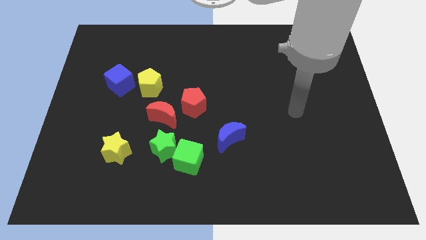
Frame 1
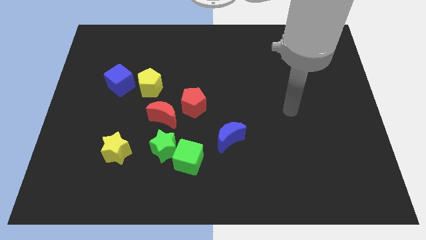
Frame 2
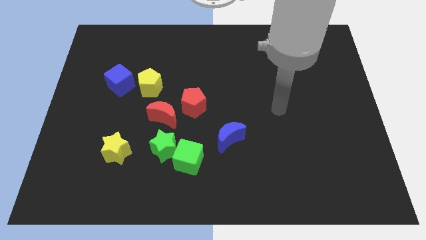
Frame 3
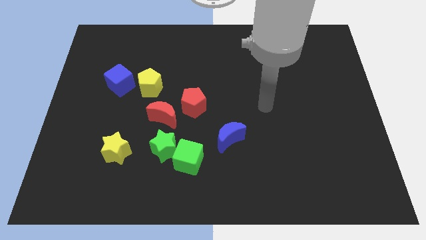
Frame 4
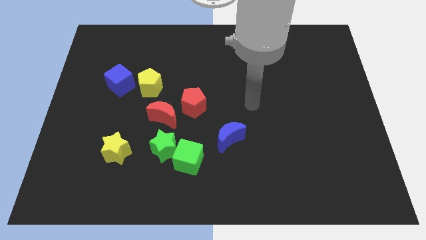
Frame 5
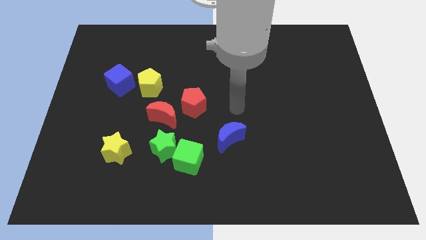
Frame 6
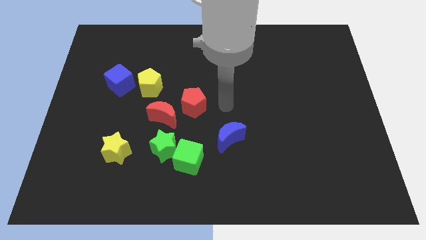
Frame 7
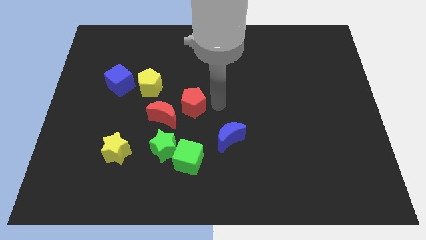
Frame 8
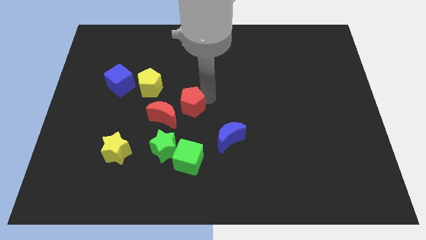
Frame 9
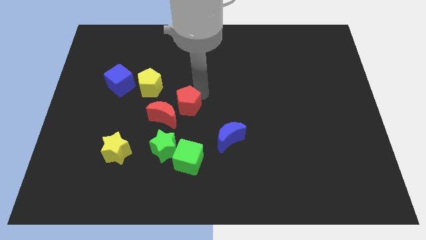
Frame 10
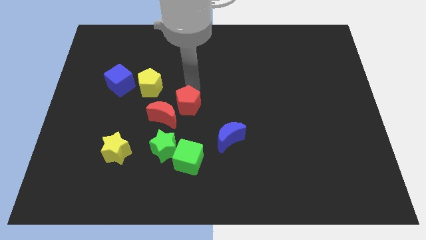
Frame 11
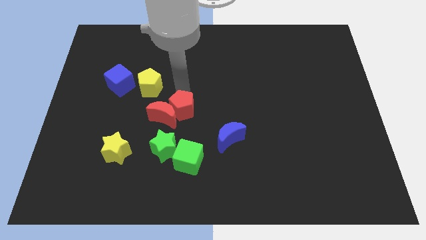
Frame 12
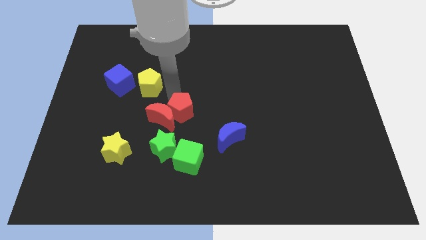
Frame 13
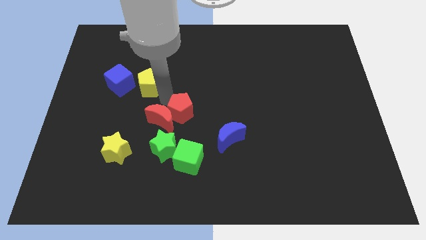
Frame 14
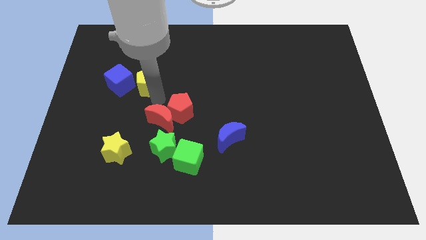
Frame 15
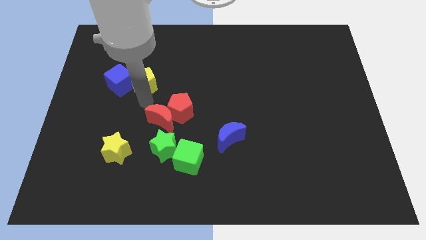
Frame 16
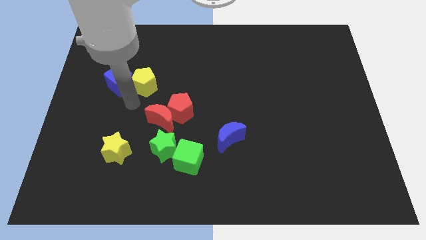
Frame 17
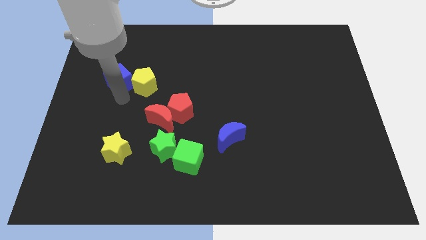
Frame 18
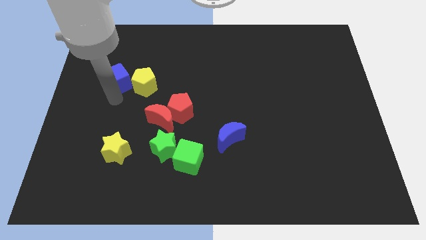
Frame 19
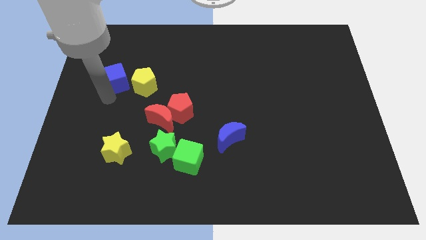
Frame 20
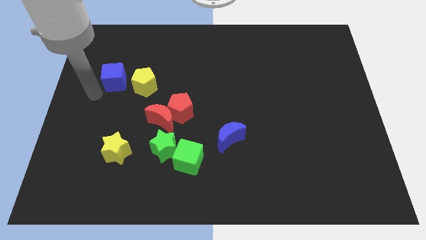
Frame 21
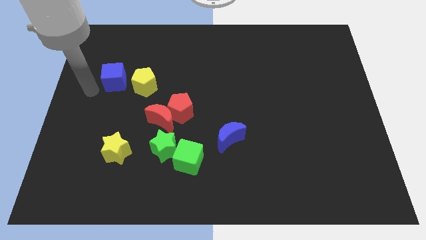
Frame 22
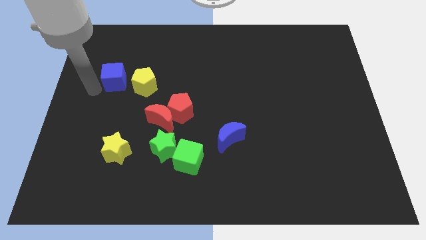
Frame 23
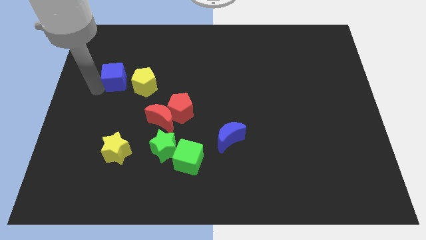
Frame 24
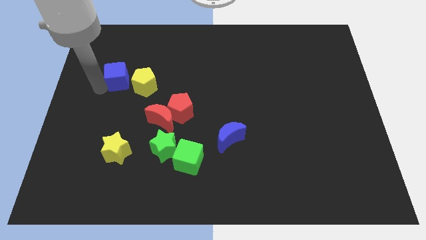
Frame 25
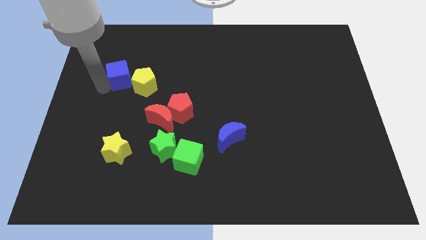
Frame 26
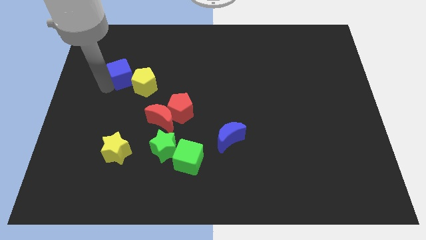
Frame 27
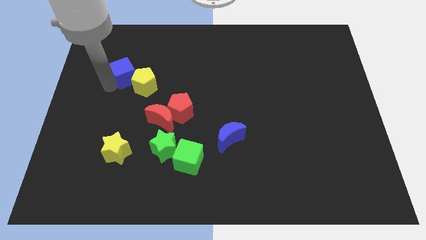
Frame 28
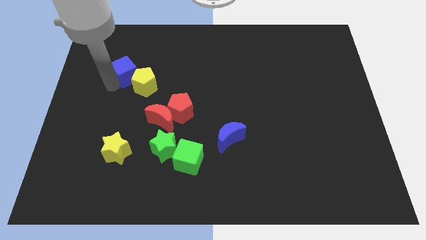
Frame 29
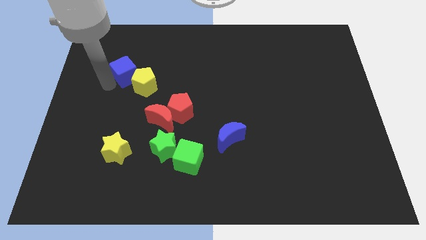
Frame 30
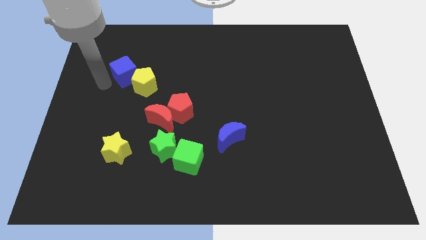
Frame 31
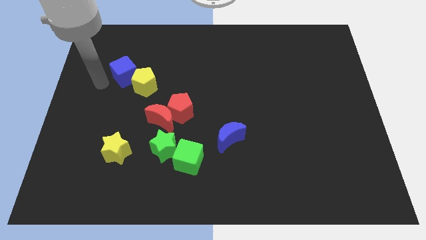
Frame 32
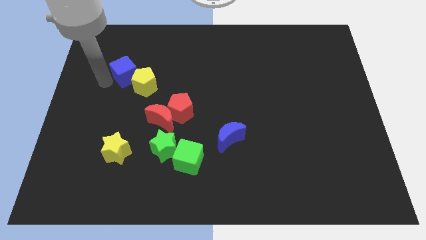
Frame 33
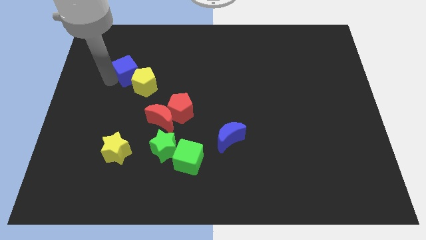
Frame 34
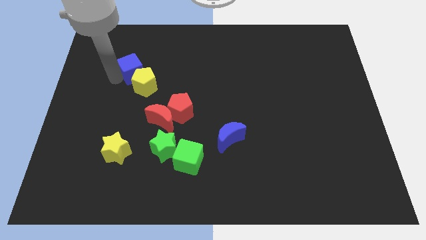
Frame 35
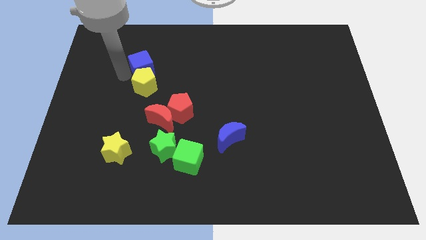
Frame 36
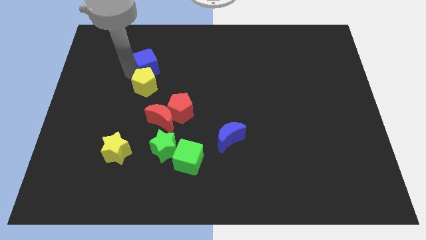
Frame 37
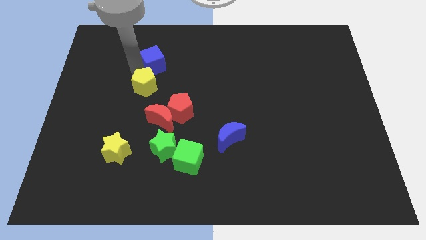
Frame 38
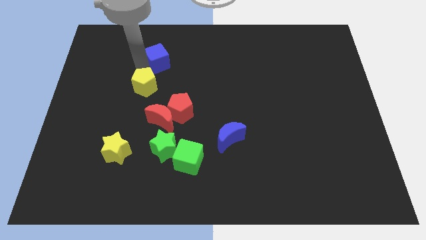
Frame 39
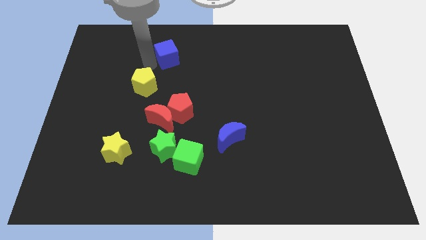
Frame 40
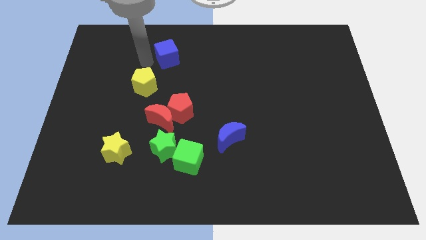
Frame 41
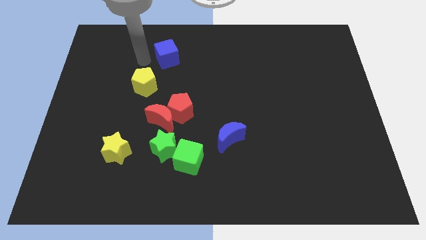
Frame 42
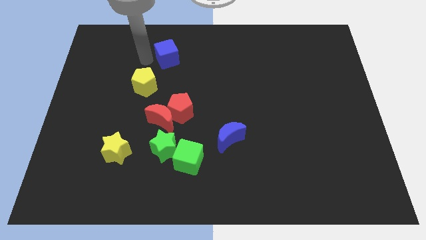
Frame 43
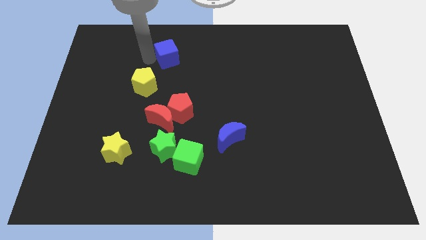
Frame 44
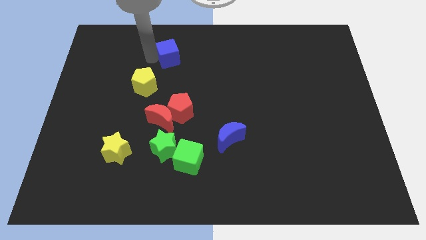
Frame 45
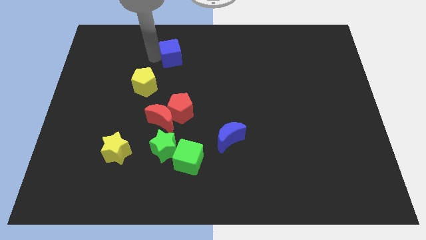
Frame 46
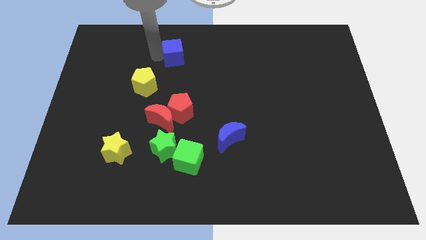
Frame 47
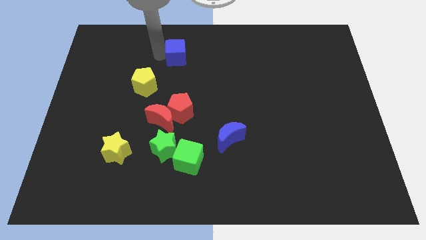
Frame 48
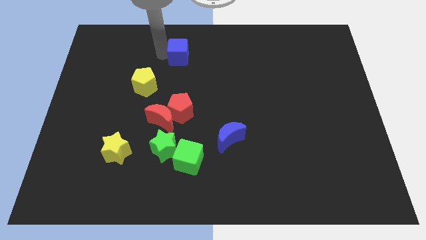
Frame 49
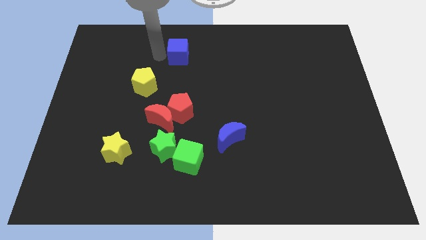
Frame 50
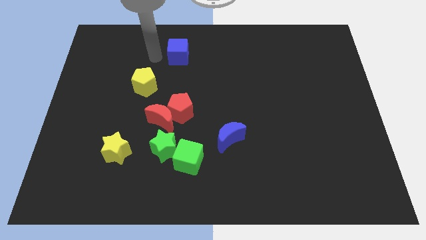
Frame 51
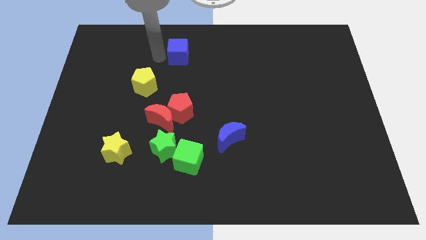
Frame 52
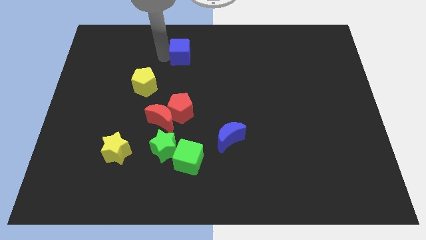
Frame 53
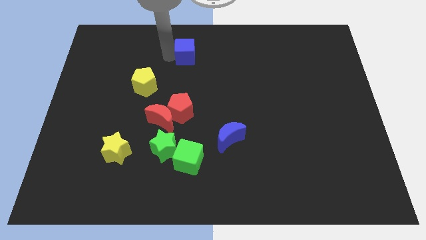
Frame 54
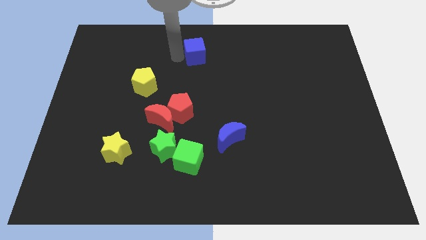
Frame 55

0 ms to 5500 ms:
push the blue cube to the top side
